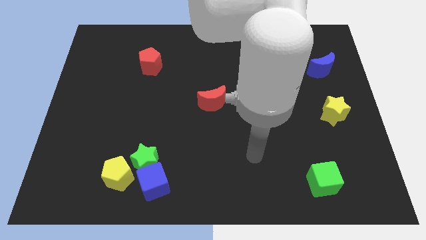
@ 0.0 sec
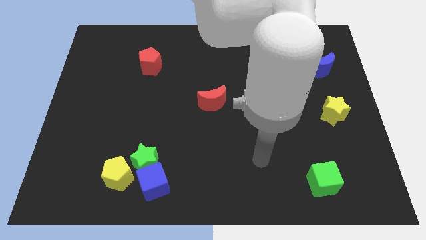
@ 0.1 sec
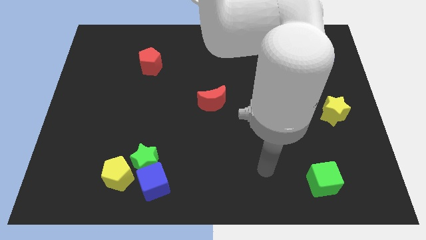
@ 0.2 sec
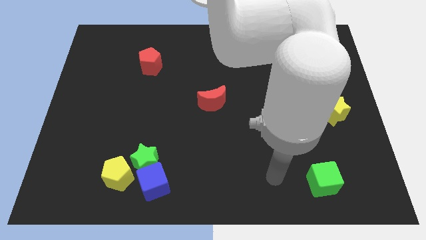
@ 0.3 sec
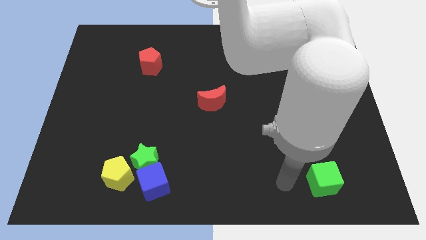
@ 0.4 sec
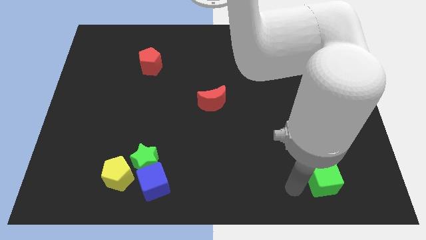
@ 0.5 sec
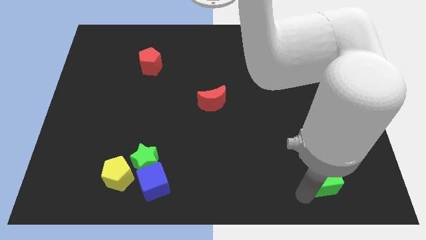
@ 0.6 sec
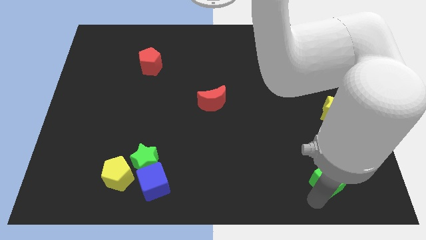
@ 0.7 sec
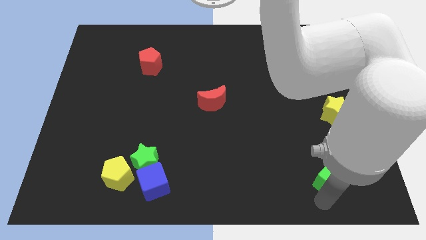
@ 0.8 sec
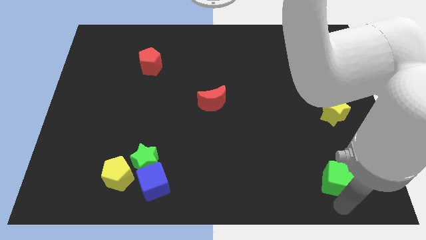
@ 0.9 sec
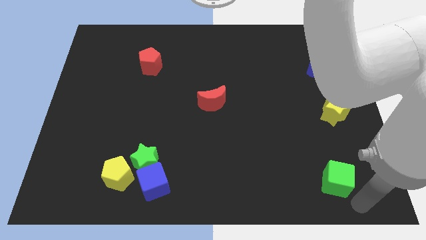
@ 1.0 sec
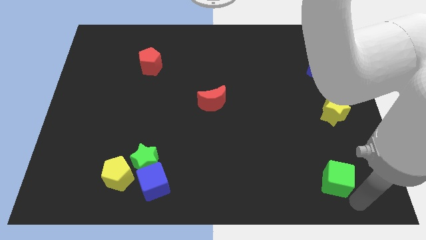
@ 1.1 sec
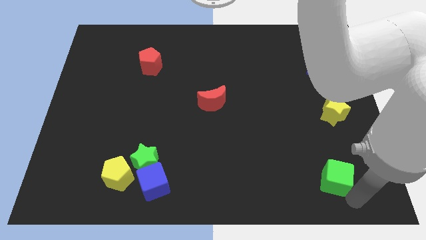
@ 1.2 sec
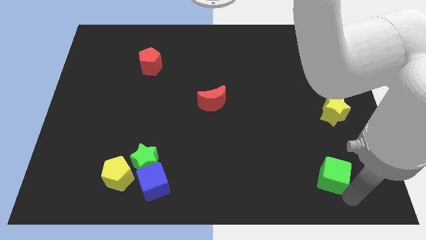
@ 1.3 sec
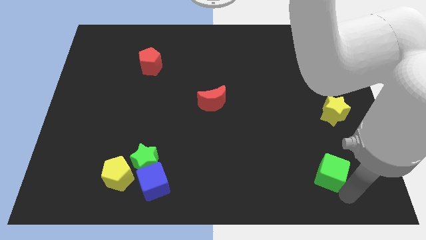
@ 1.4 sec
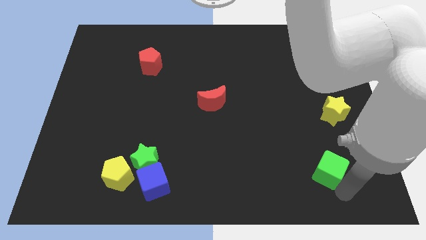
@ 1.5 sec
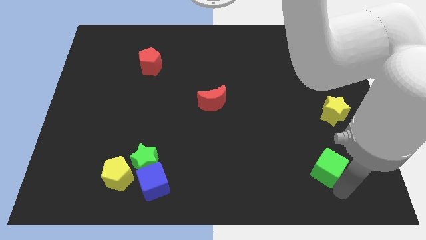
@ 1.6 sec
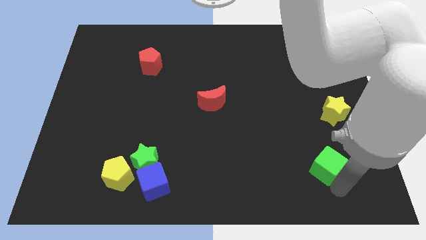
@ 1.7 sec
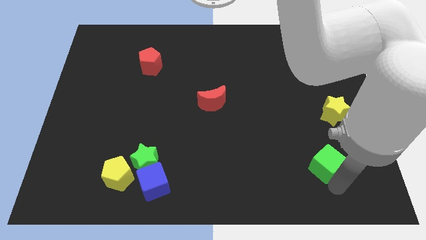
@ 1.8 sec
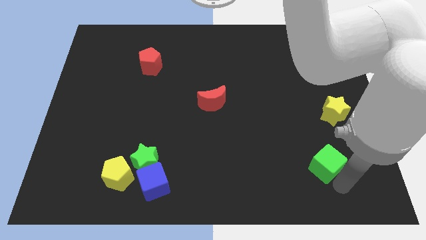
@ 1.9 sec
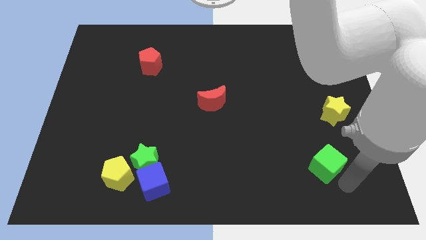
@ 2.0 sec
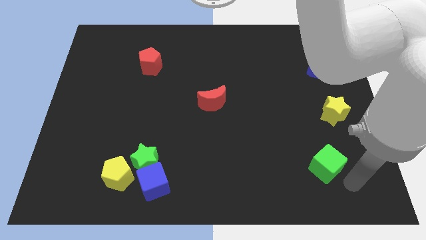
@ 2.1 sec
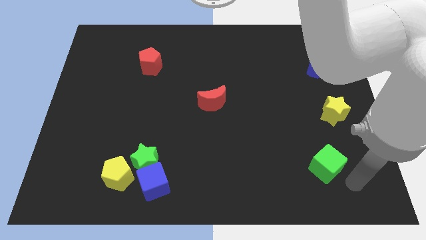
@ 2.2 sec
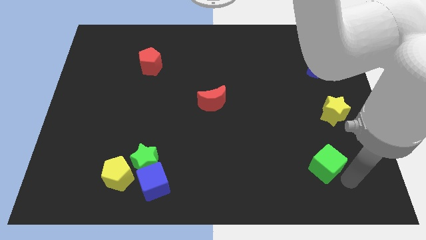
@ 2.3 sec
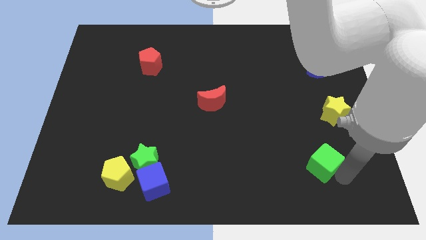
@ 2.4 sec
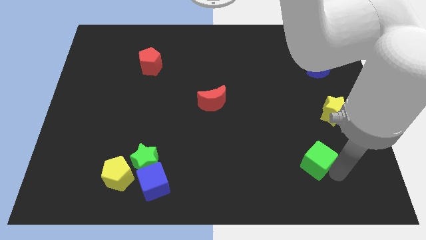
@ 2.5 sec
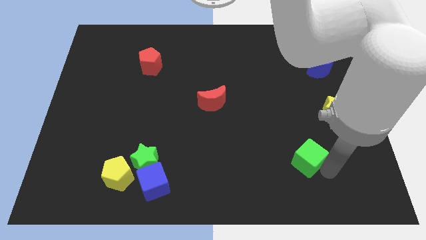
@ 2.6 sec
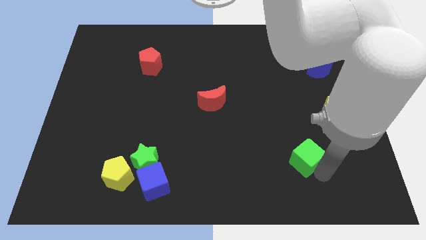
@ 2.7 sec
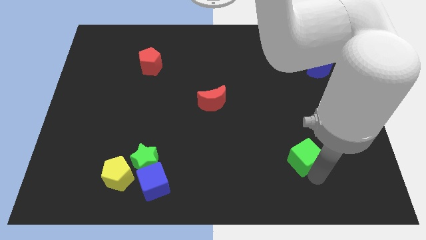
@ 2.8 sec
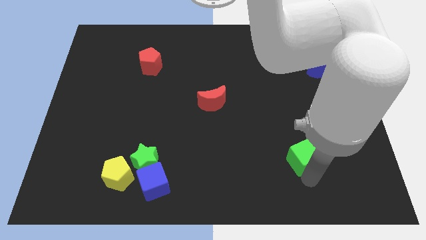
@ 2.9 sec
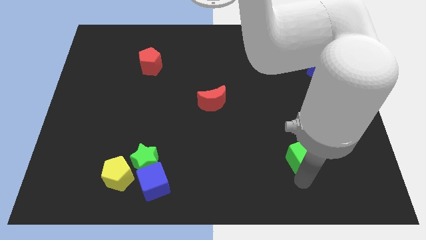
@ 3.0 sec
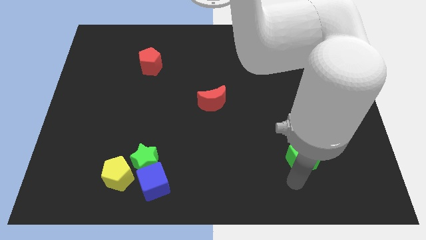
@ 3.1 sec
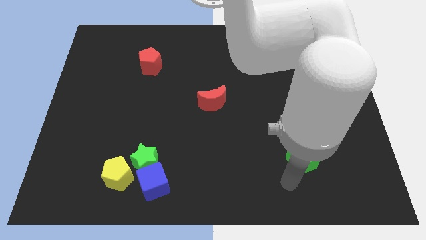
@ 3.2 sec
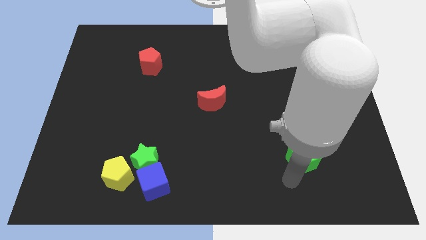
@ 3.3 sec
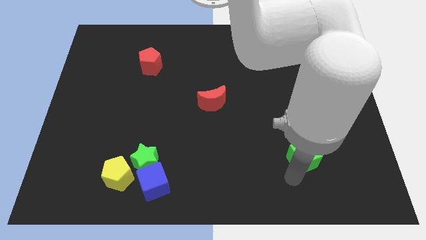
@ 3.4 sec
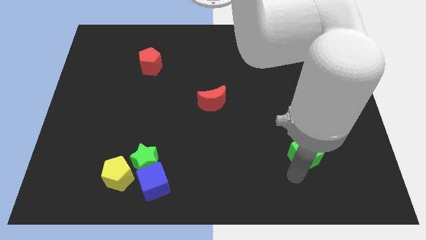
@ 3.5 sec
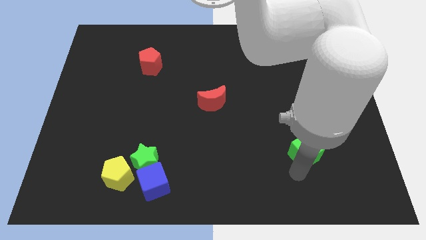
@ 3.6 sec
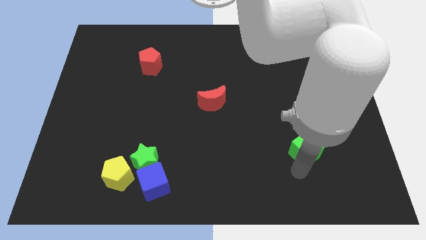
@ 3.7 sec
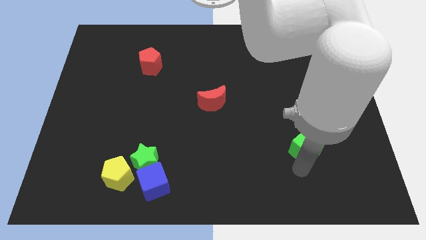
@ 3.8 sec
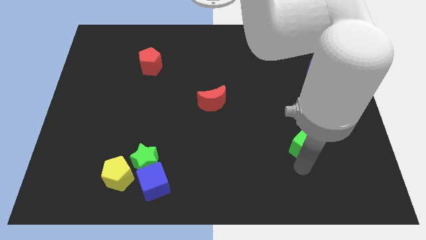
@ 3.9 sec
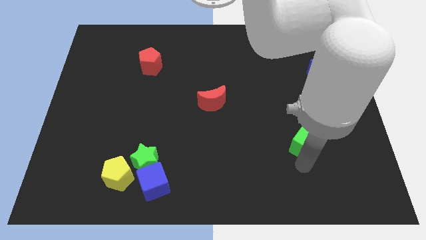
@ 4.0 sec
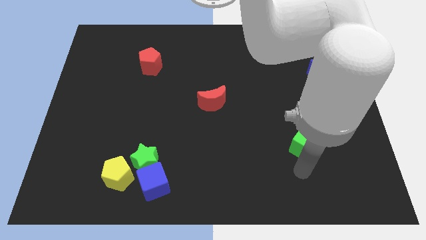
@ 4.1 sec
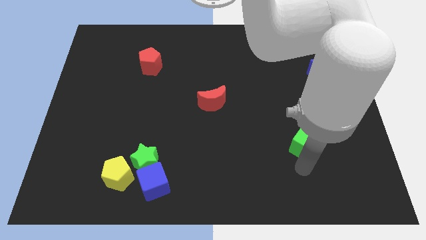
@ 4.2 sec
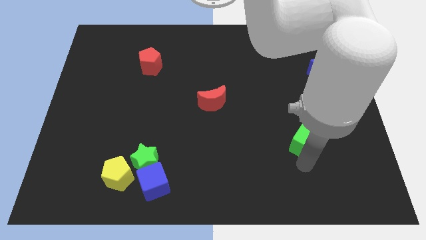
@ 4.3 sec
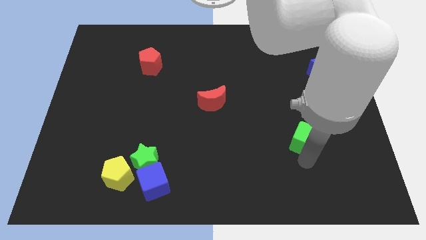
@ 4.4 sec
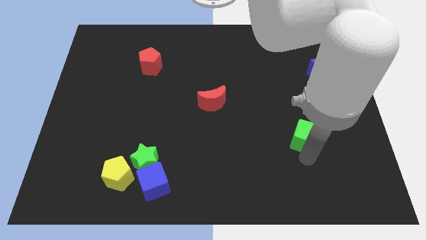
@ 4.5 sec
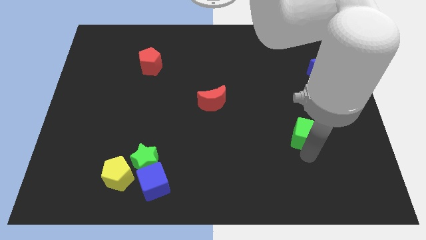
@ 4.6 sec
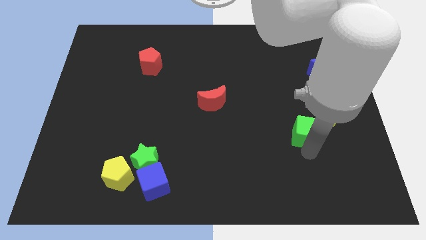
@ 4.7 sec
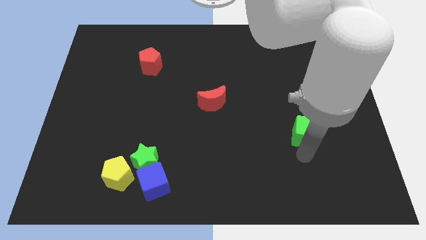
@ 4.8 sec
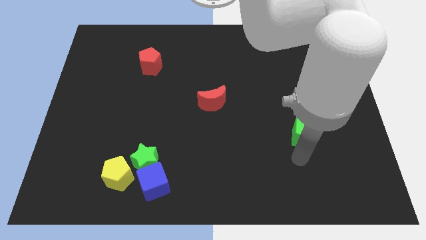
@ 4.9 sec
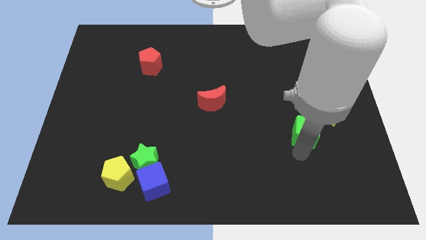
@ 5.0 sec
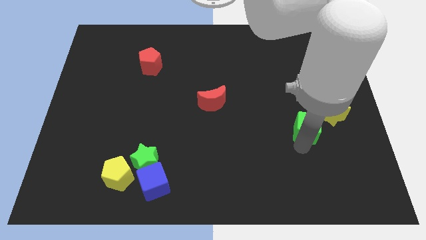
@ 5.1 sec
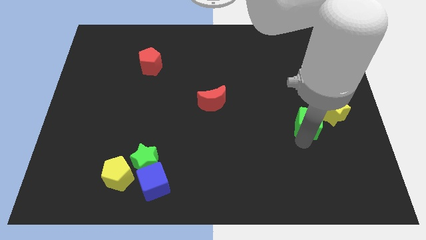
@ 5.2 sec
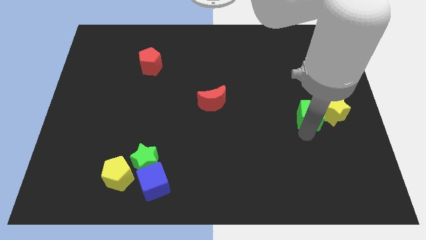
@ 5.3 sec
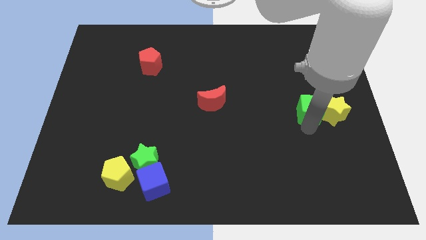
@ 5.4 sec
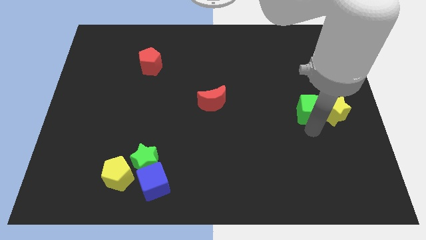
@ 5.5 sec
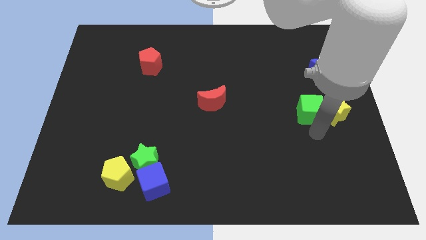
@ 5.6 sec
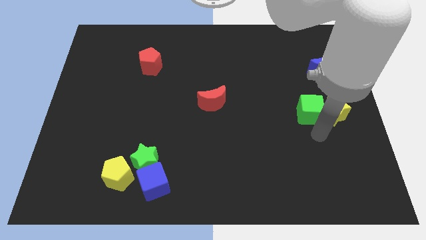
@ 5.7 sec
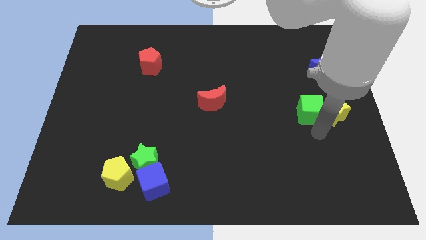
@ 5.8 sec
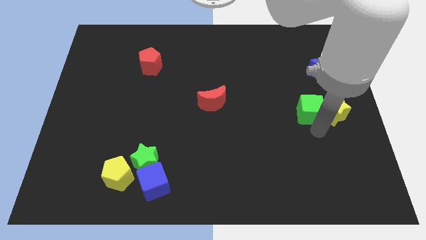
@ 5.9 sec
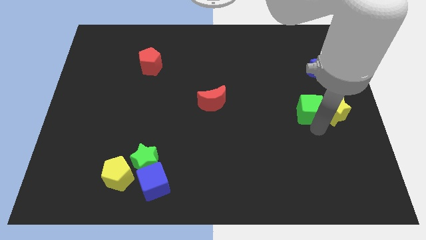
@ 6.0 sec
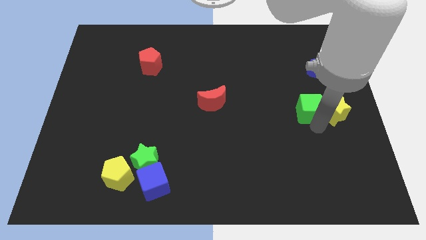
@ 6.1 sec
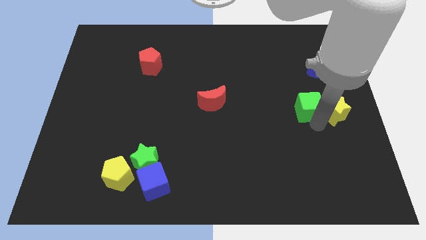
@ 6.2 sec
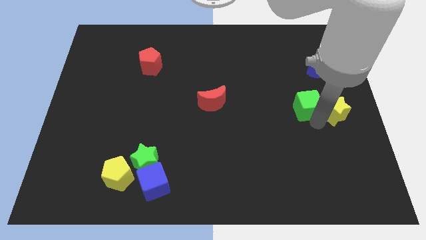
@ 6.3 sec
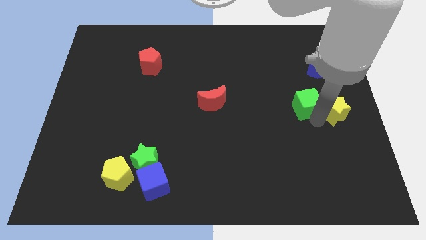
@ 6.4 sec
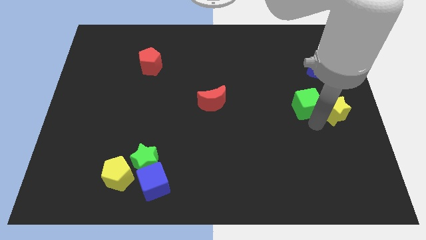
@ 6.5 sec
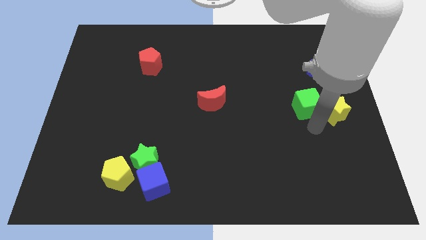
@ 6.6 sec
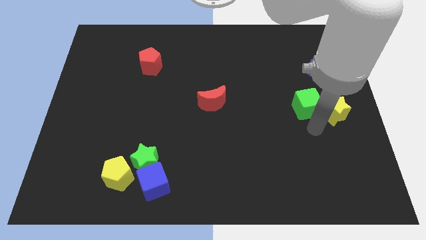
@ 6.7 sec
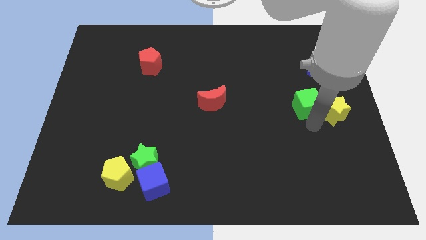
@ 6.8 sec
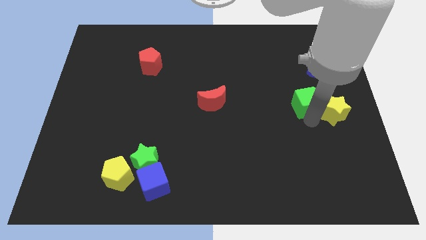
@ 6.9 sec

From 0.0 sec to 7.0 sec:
move the green cube upwards

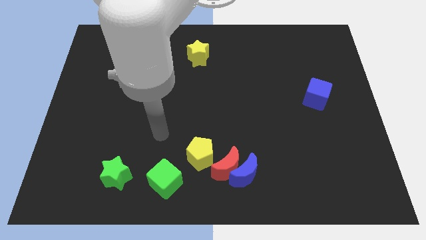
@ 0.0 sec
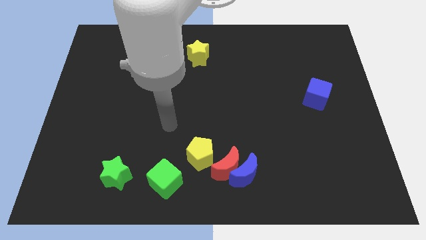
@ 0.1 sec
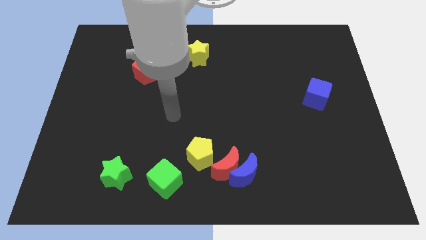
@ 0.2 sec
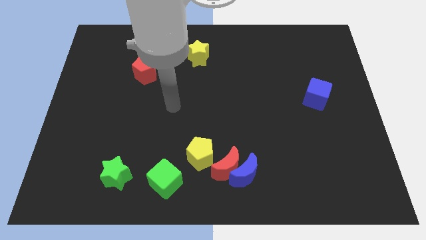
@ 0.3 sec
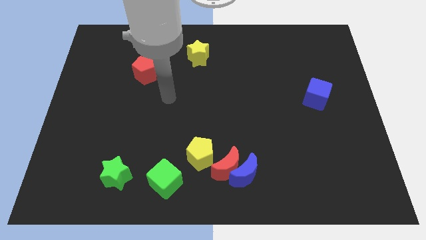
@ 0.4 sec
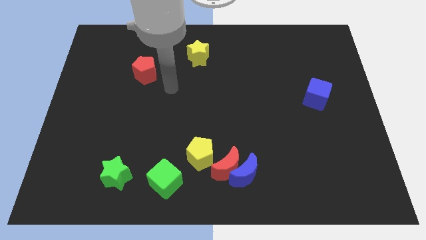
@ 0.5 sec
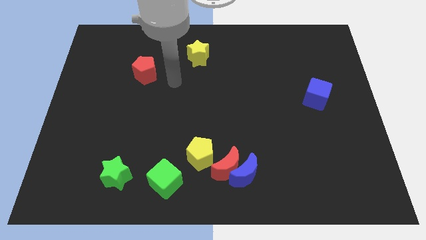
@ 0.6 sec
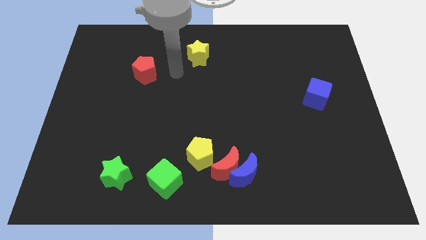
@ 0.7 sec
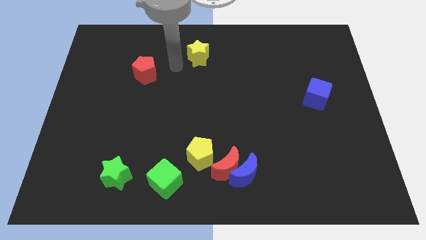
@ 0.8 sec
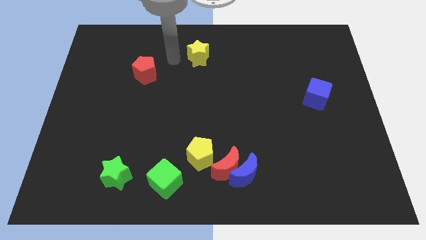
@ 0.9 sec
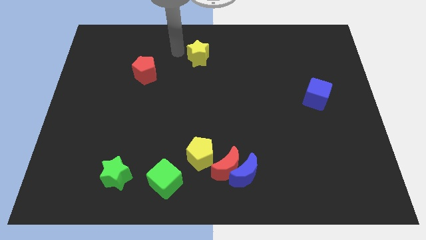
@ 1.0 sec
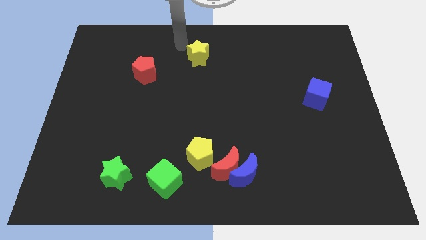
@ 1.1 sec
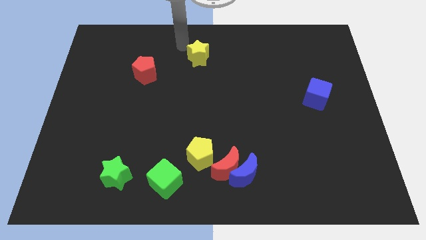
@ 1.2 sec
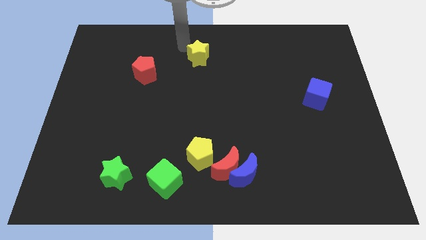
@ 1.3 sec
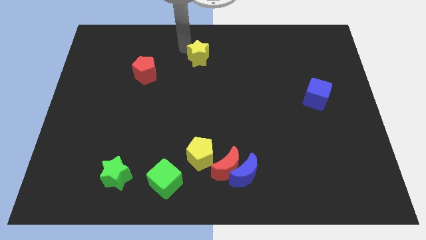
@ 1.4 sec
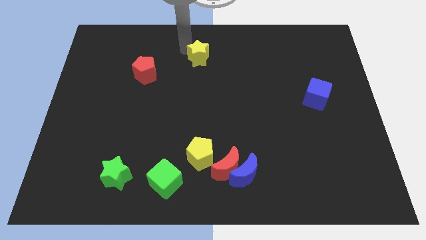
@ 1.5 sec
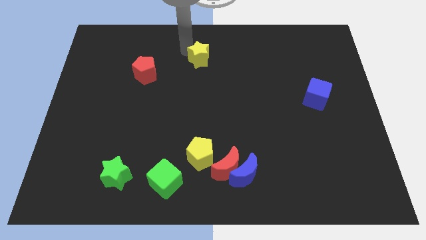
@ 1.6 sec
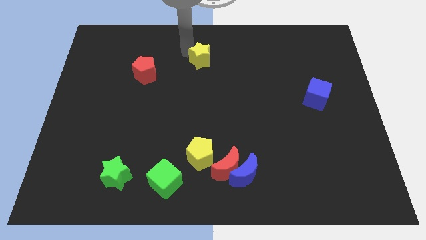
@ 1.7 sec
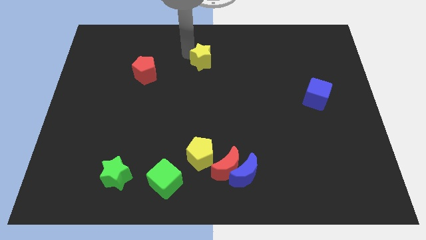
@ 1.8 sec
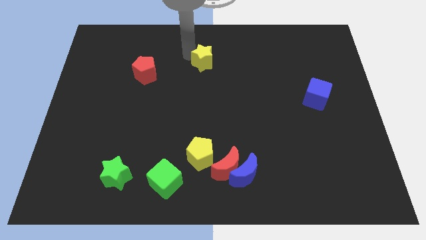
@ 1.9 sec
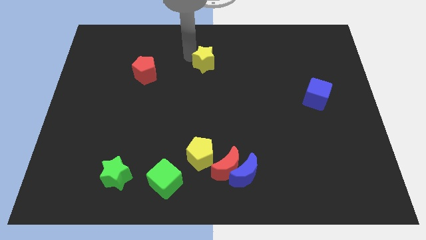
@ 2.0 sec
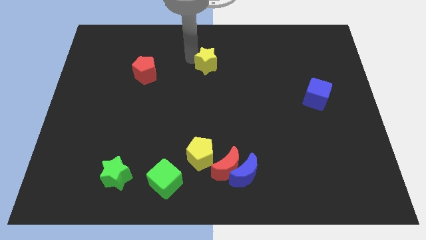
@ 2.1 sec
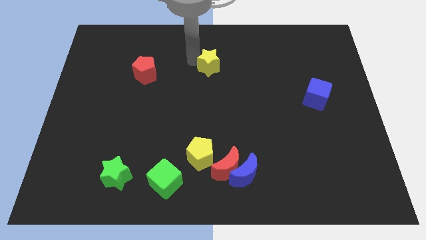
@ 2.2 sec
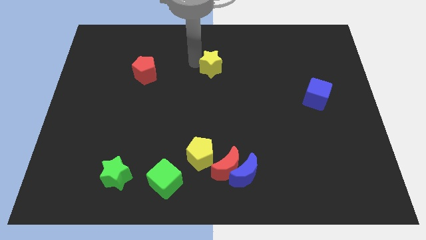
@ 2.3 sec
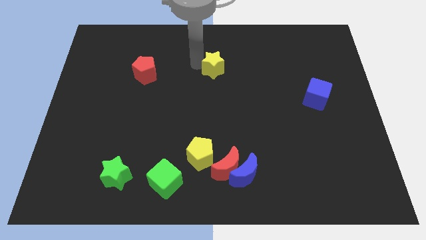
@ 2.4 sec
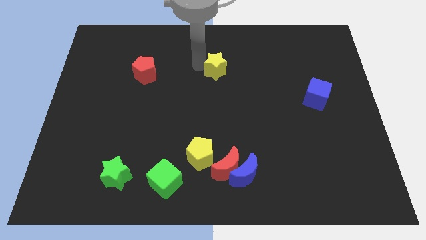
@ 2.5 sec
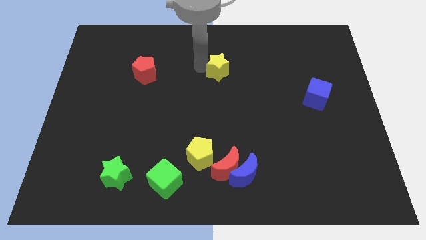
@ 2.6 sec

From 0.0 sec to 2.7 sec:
move the yellow star slightly down and right
